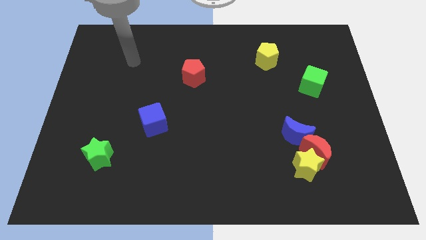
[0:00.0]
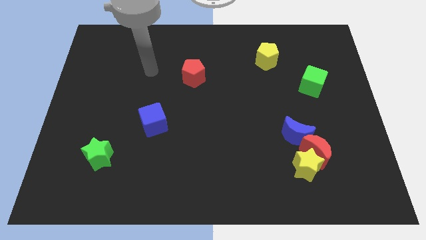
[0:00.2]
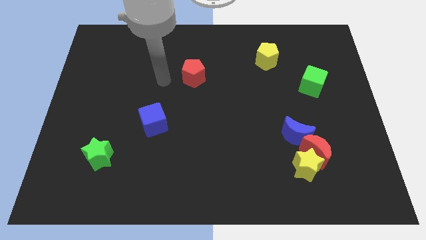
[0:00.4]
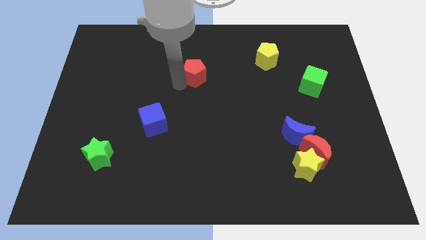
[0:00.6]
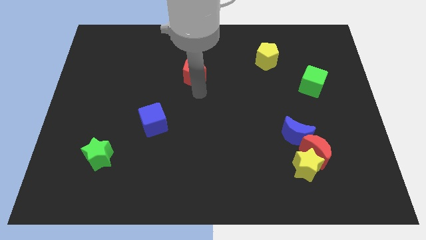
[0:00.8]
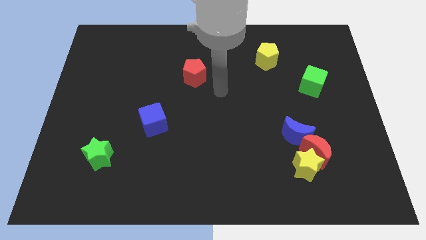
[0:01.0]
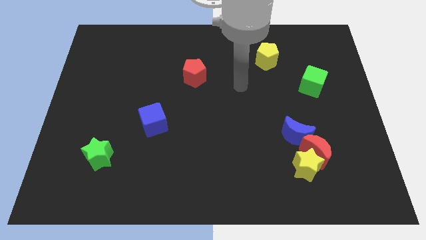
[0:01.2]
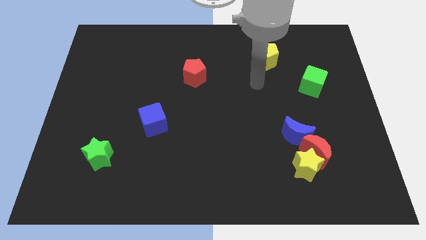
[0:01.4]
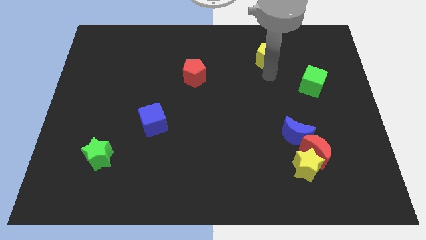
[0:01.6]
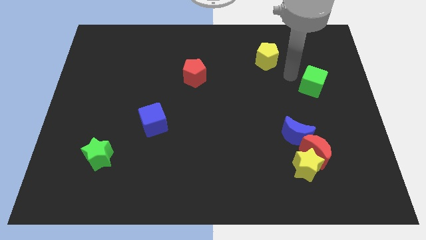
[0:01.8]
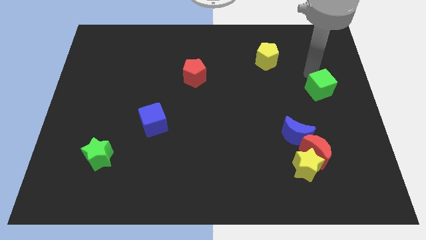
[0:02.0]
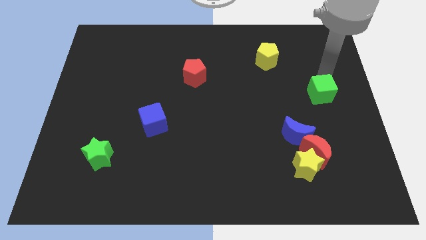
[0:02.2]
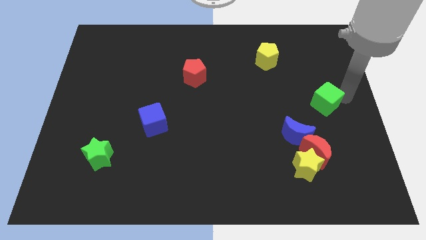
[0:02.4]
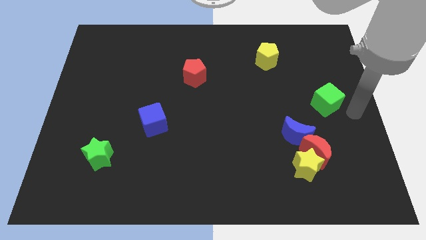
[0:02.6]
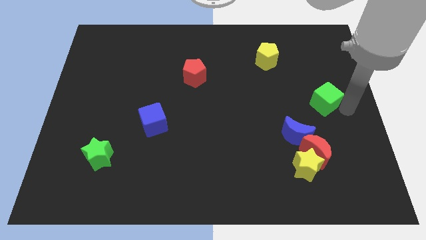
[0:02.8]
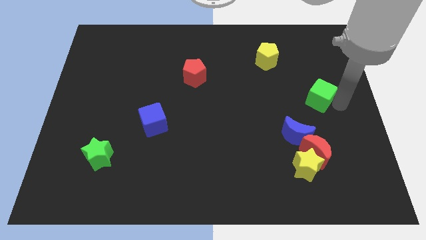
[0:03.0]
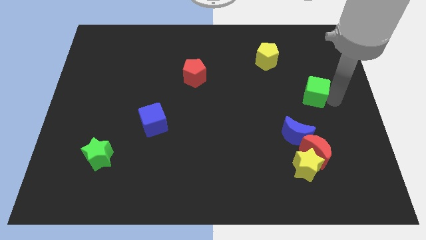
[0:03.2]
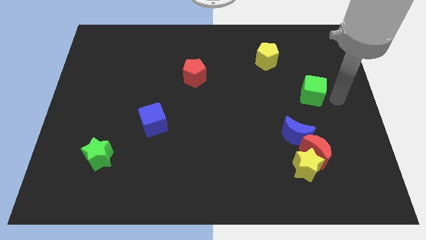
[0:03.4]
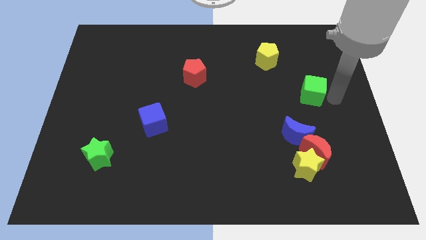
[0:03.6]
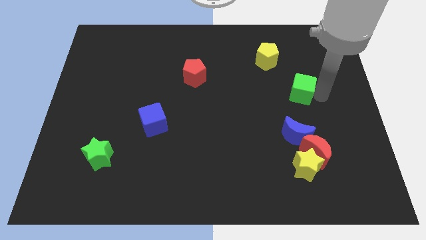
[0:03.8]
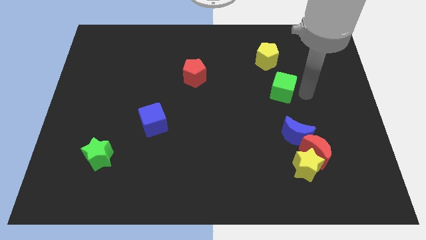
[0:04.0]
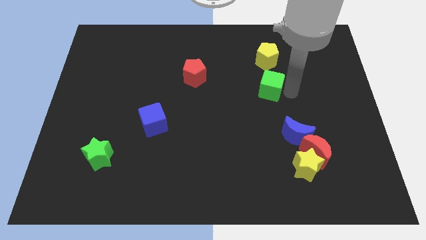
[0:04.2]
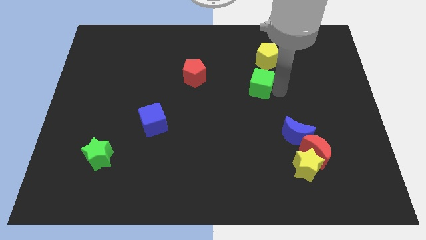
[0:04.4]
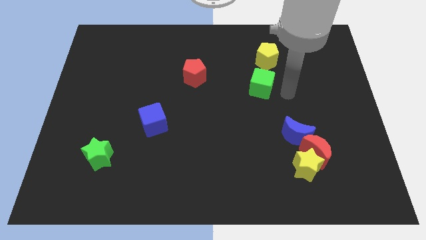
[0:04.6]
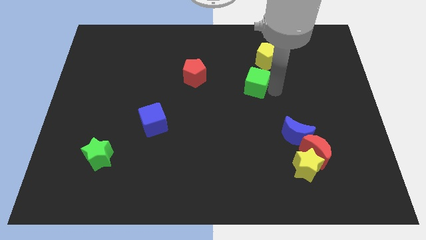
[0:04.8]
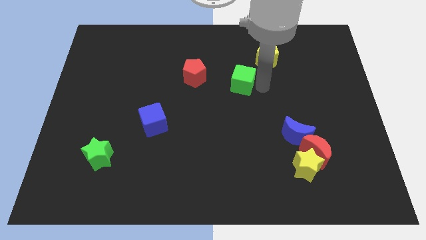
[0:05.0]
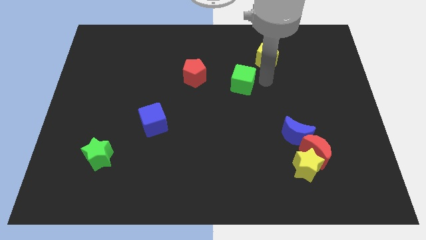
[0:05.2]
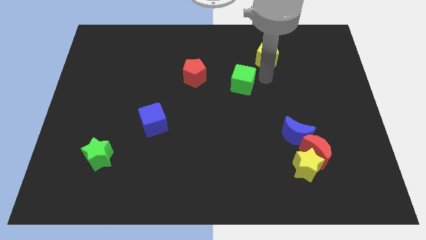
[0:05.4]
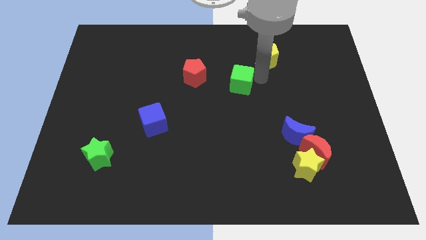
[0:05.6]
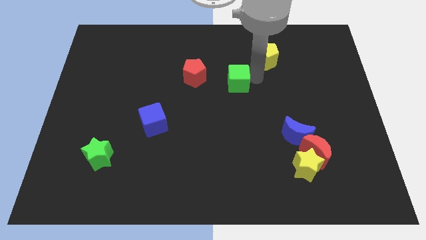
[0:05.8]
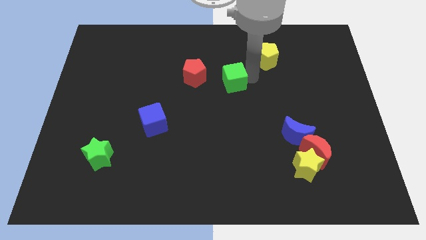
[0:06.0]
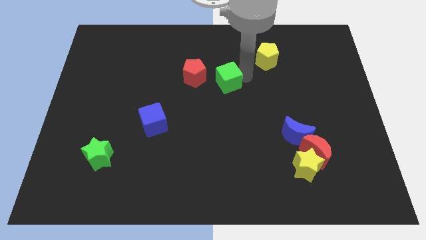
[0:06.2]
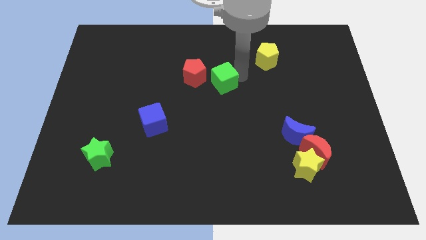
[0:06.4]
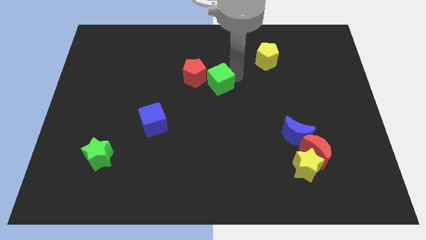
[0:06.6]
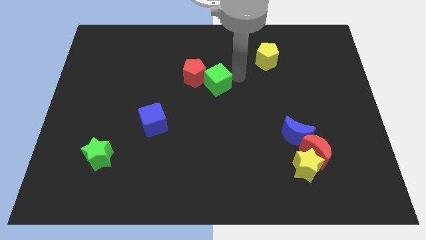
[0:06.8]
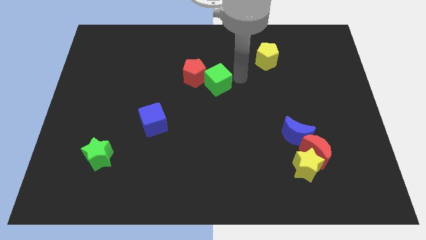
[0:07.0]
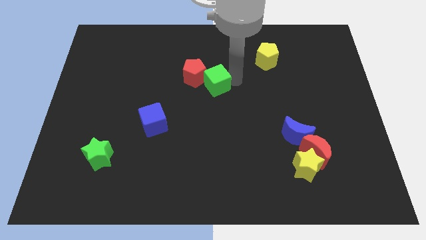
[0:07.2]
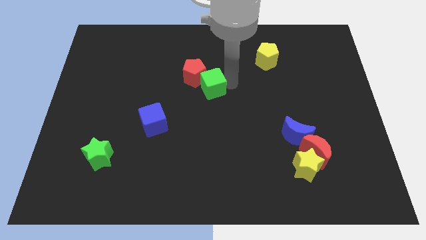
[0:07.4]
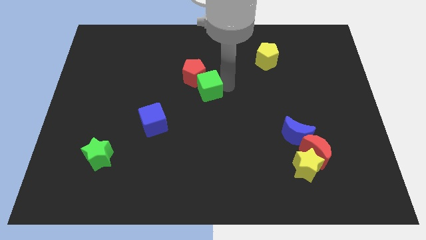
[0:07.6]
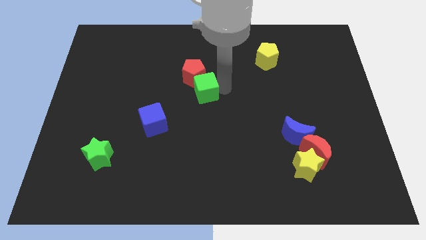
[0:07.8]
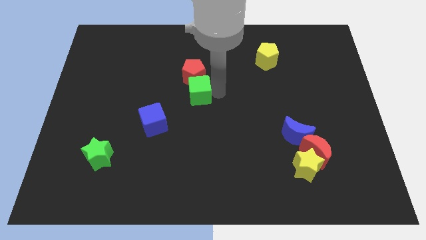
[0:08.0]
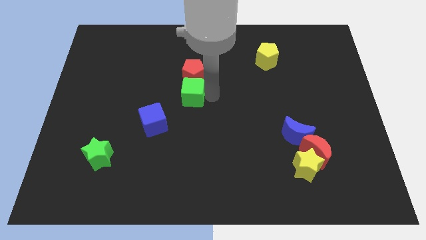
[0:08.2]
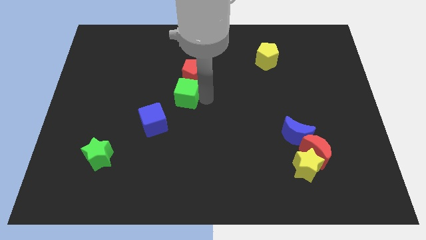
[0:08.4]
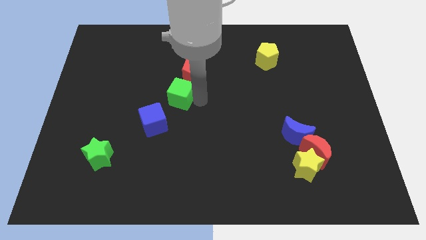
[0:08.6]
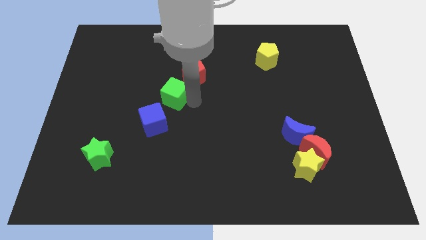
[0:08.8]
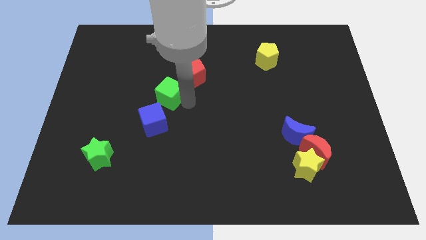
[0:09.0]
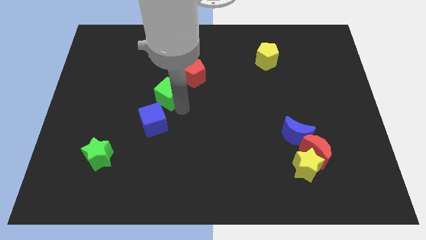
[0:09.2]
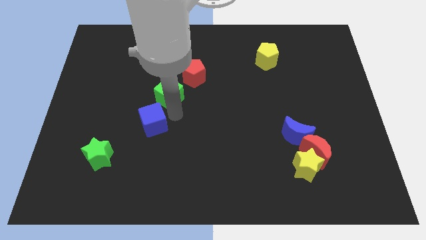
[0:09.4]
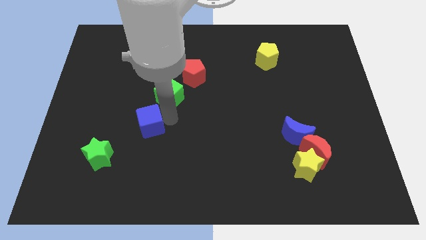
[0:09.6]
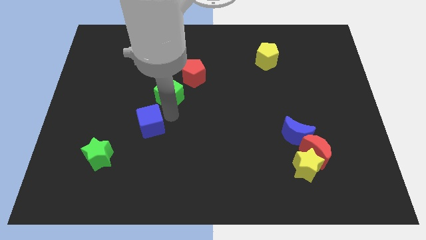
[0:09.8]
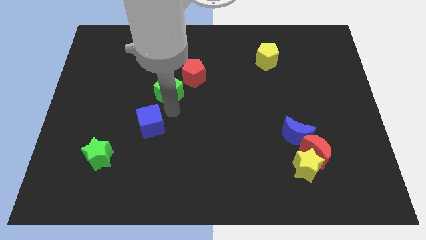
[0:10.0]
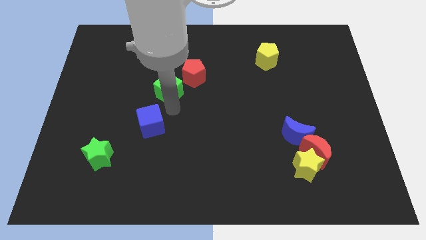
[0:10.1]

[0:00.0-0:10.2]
put the green cube just left of the red pentagon

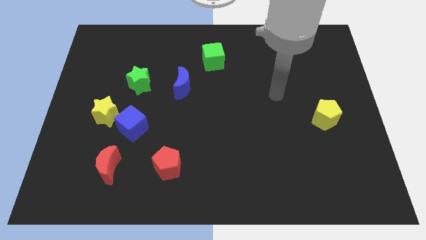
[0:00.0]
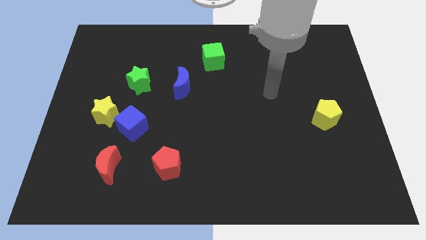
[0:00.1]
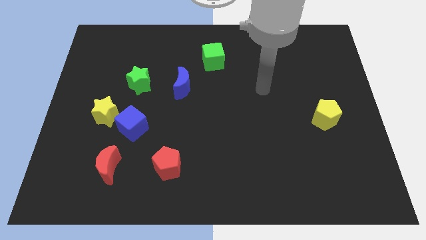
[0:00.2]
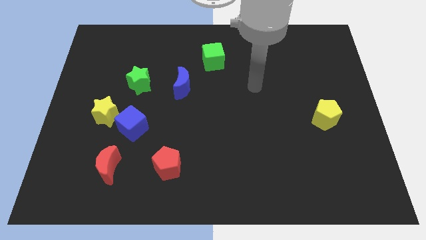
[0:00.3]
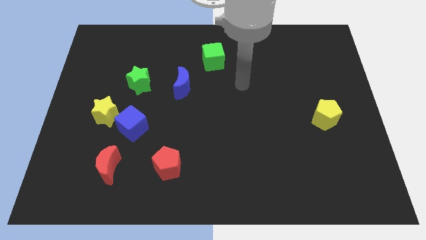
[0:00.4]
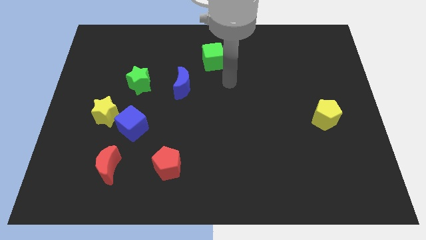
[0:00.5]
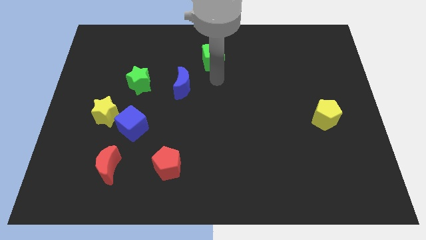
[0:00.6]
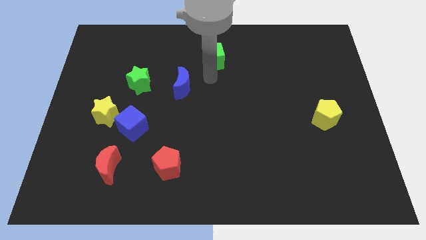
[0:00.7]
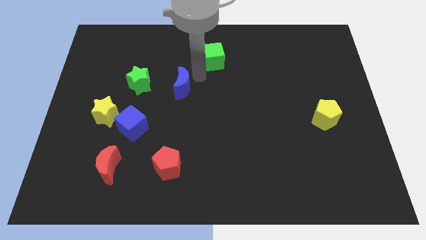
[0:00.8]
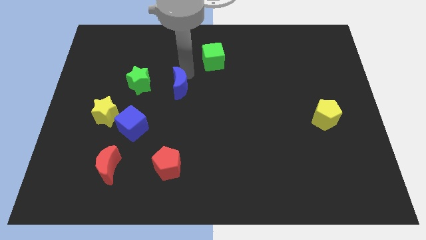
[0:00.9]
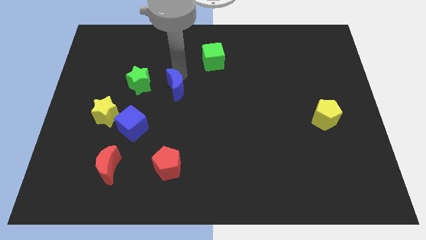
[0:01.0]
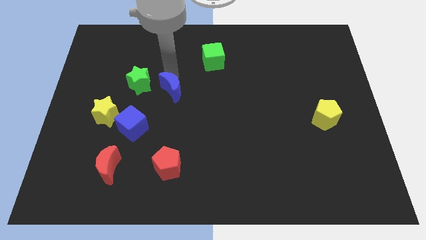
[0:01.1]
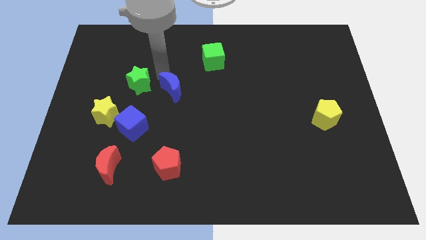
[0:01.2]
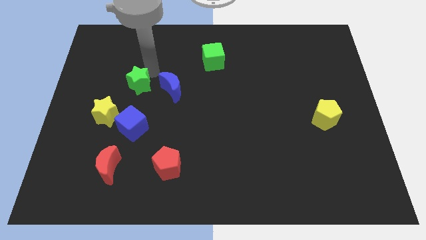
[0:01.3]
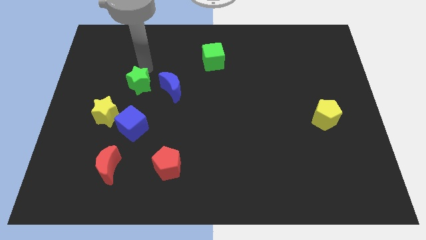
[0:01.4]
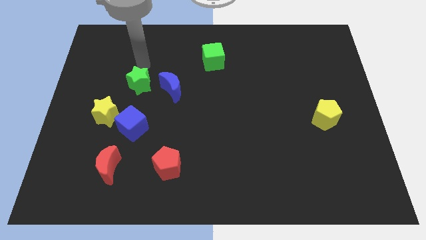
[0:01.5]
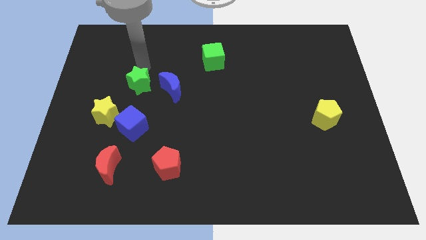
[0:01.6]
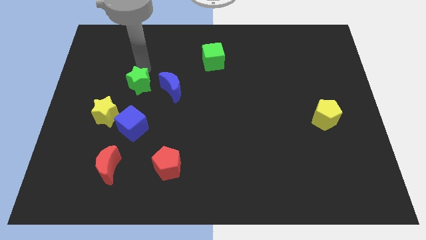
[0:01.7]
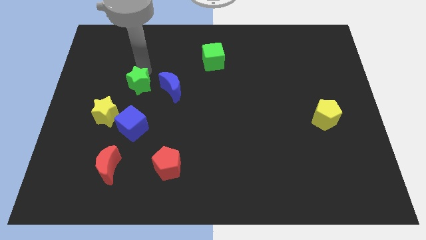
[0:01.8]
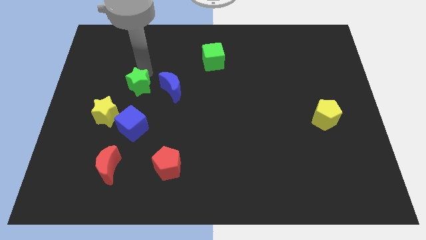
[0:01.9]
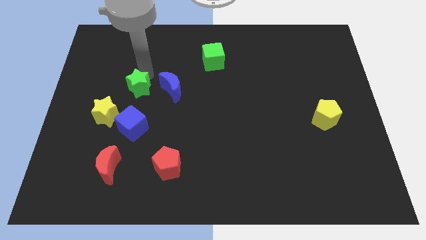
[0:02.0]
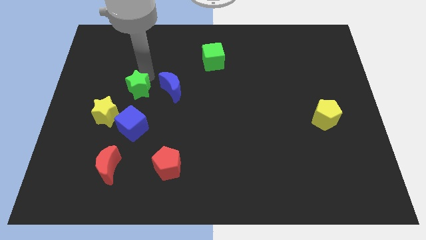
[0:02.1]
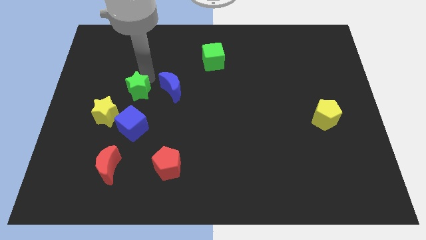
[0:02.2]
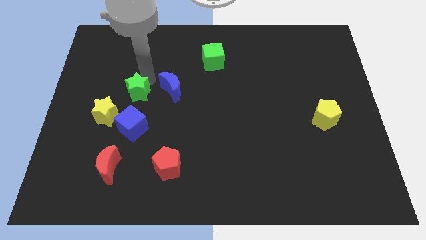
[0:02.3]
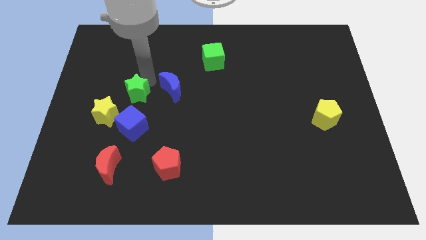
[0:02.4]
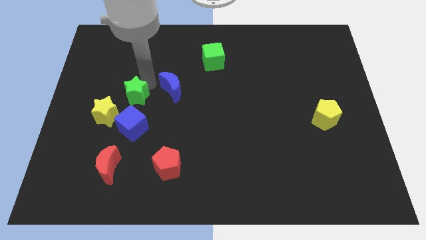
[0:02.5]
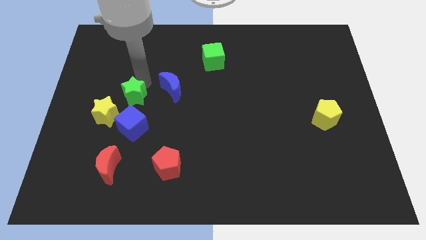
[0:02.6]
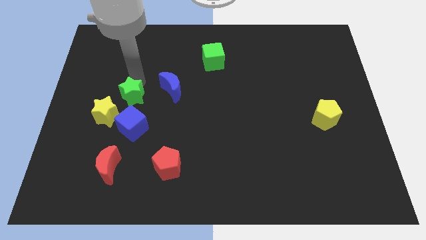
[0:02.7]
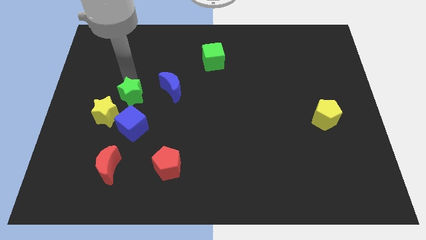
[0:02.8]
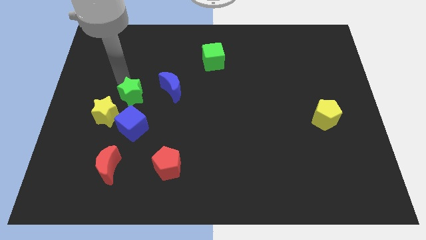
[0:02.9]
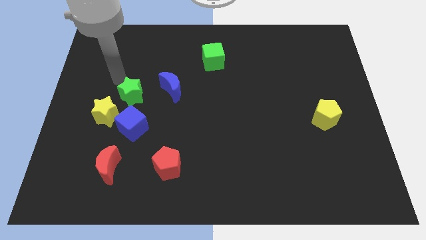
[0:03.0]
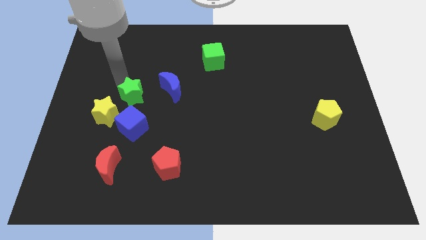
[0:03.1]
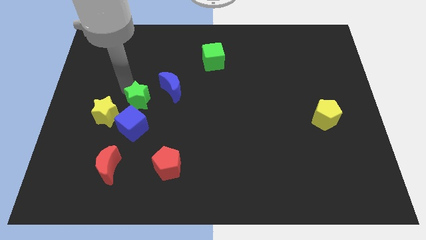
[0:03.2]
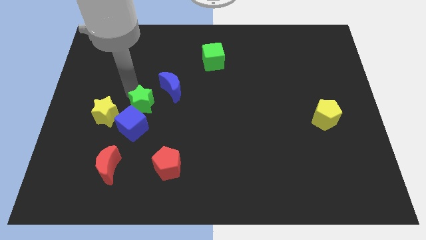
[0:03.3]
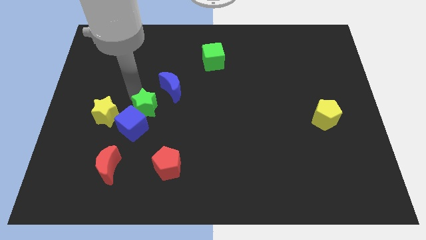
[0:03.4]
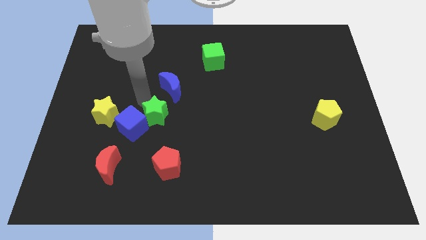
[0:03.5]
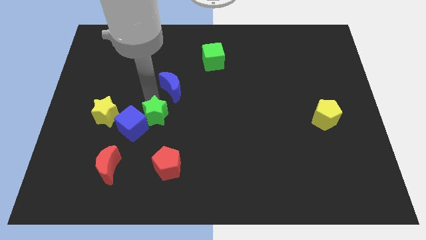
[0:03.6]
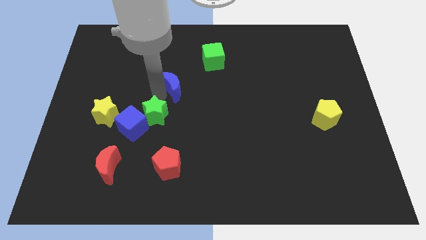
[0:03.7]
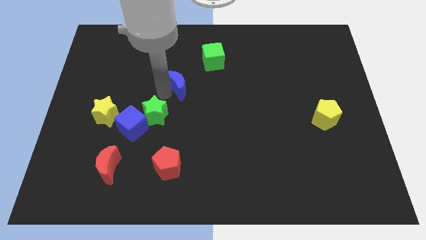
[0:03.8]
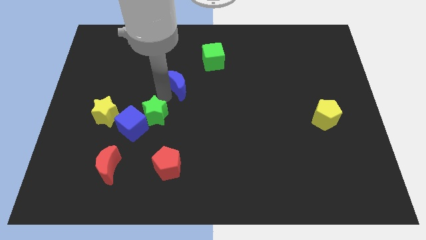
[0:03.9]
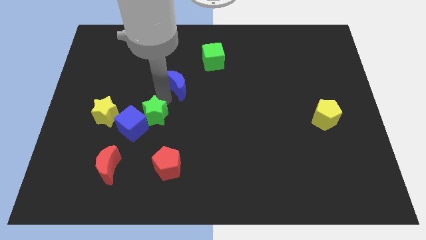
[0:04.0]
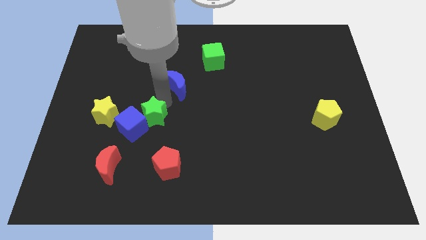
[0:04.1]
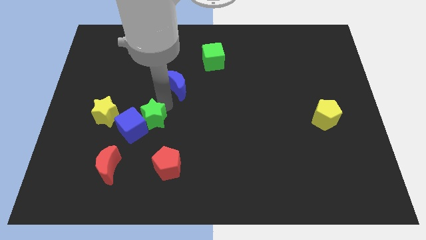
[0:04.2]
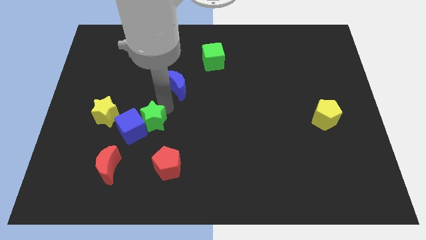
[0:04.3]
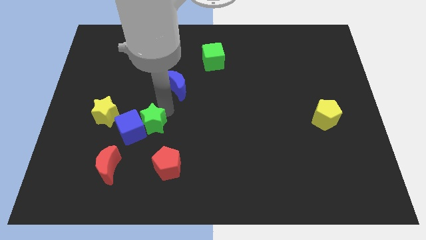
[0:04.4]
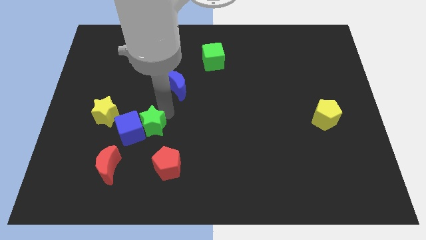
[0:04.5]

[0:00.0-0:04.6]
move the green star to the top left side of the red pentagon
